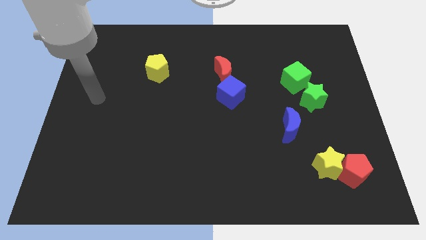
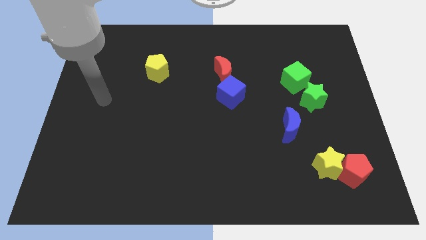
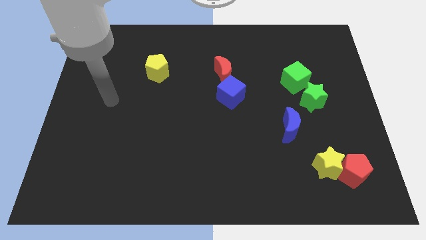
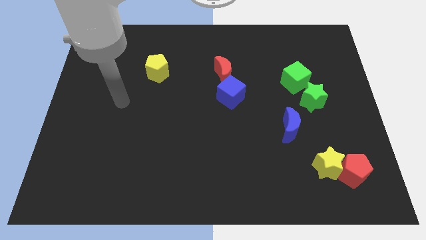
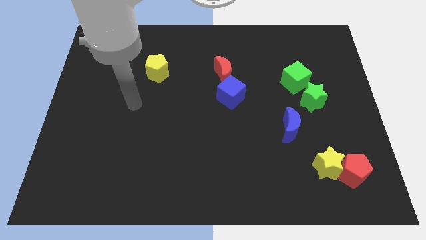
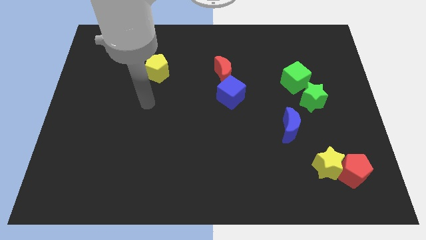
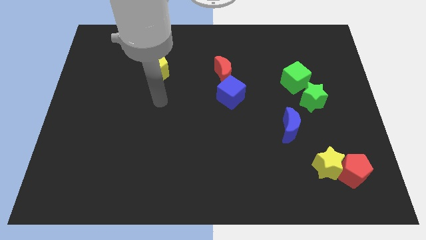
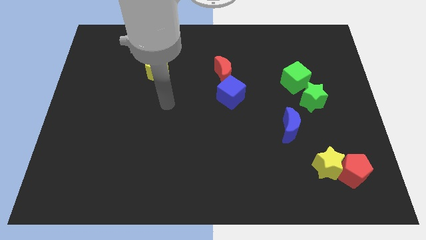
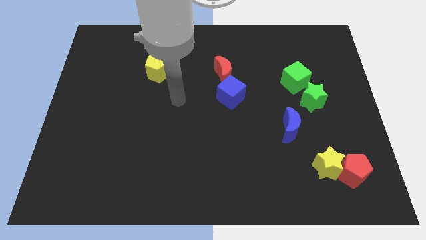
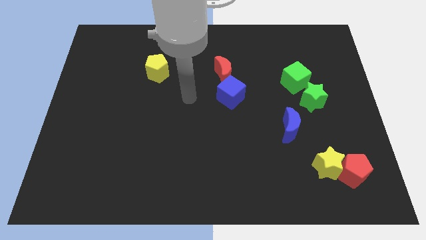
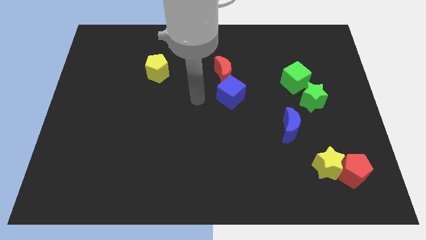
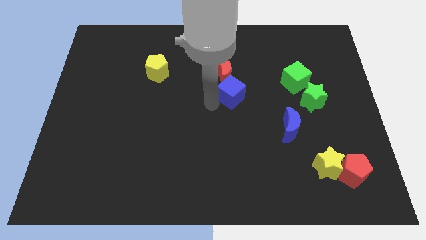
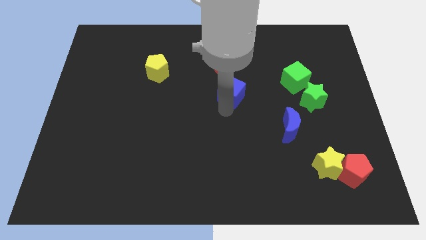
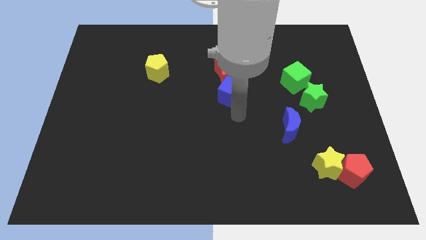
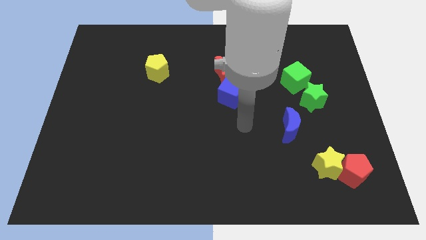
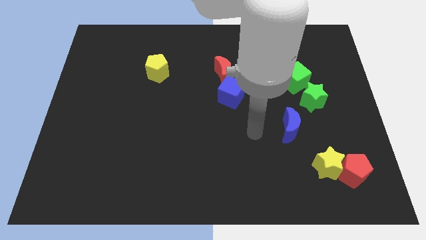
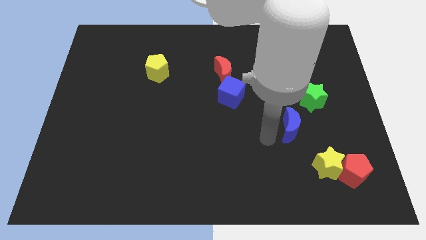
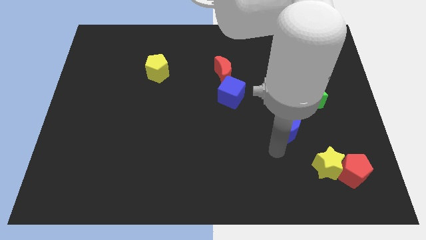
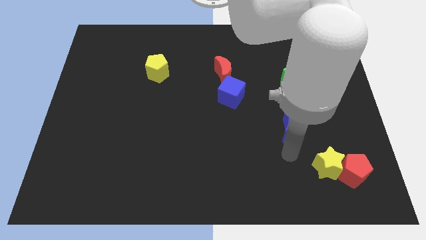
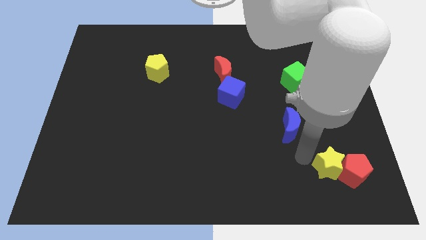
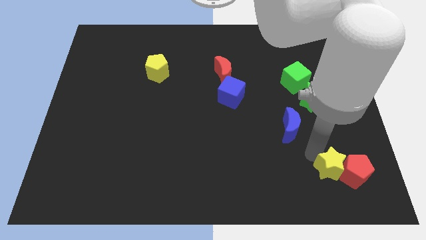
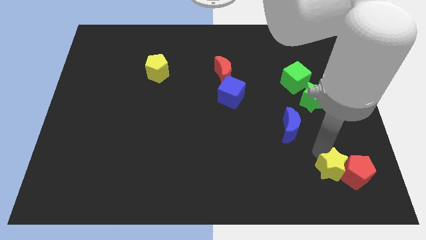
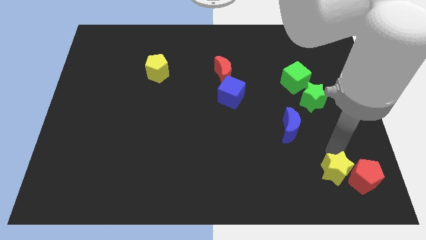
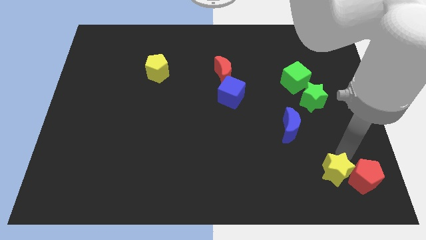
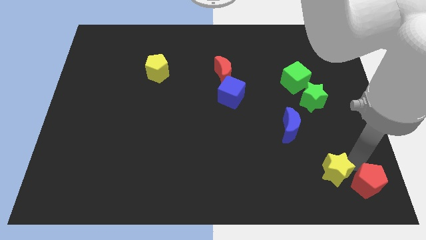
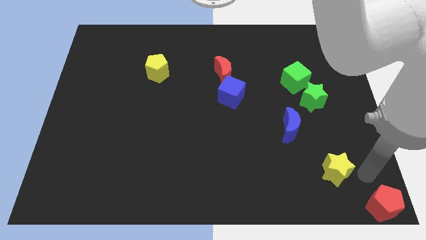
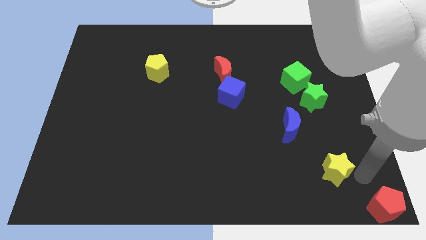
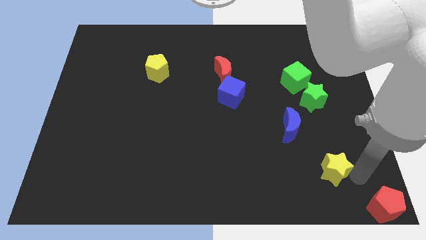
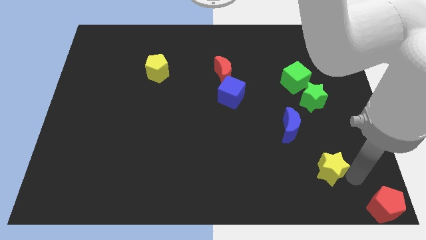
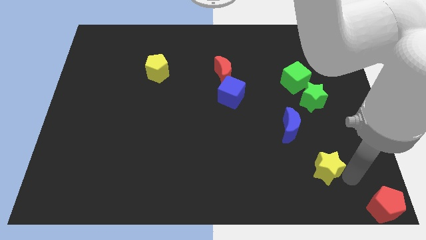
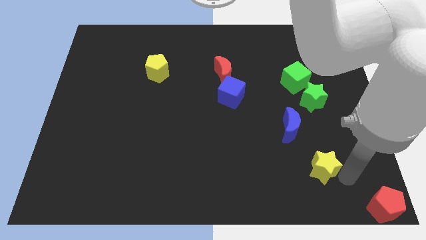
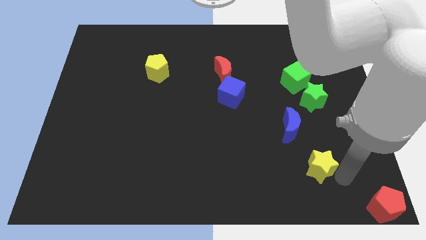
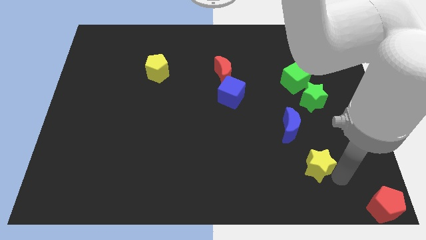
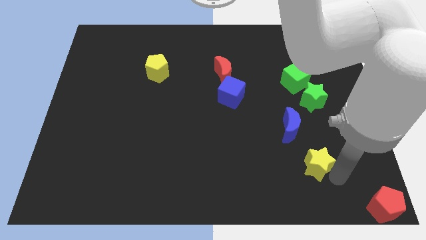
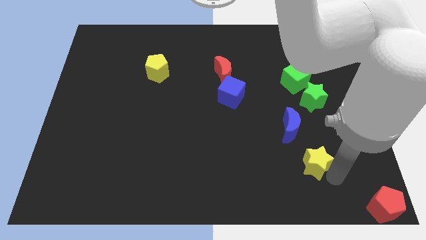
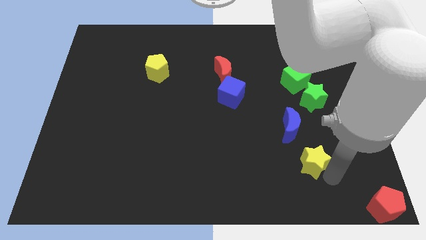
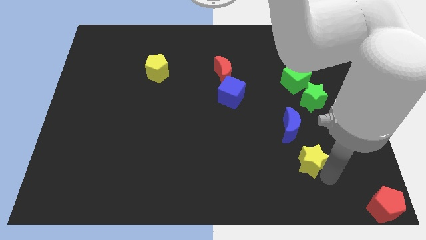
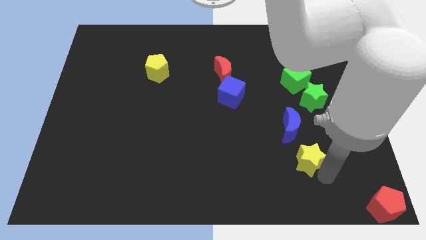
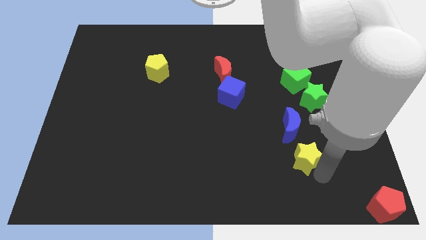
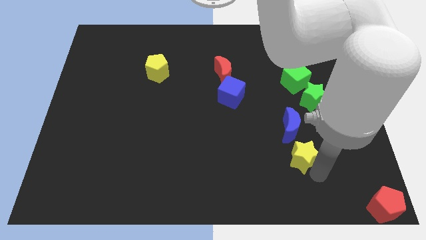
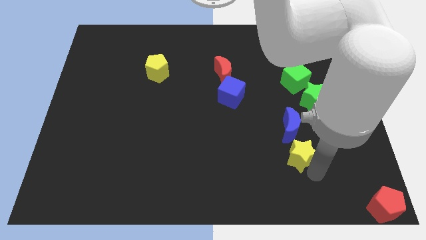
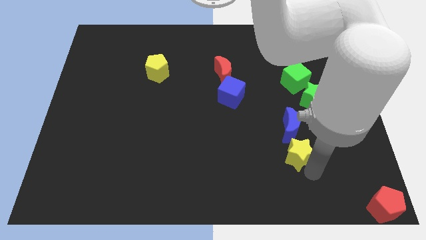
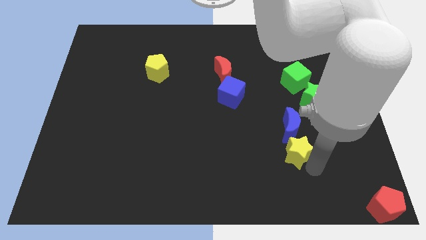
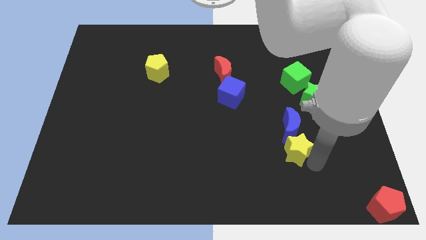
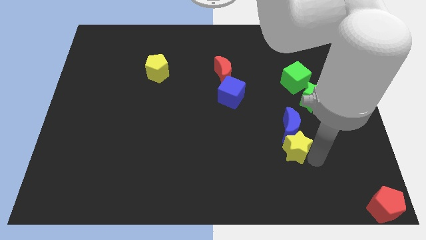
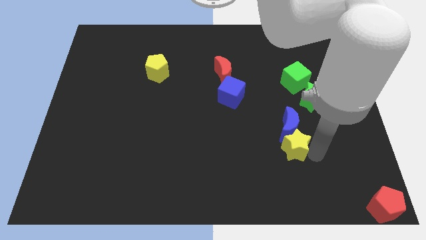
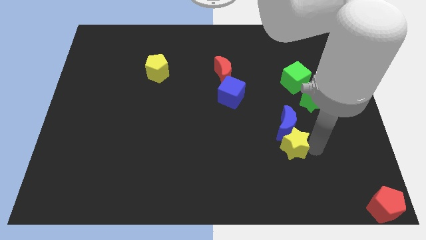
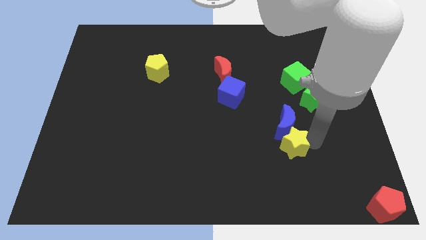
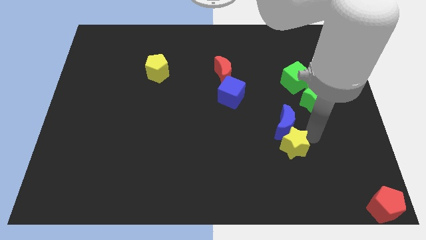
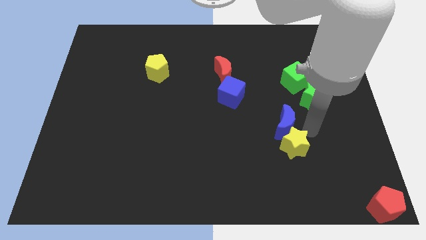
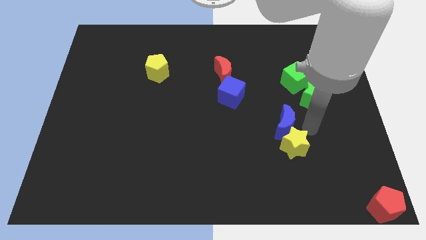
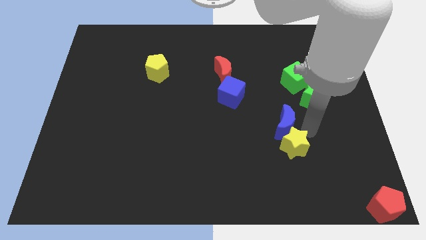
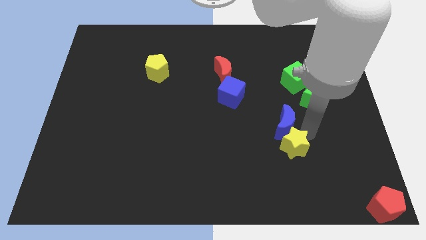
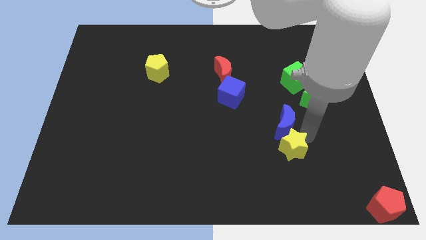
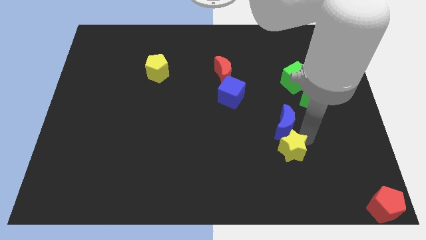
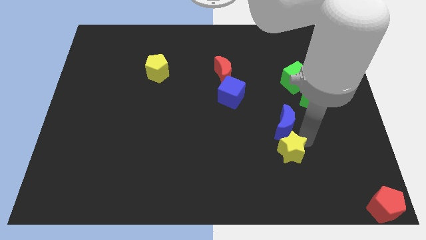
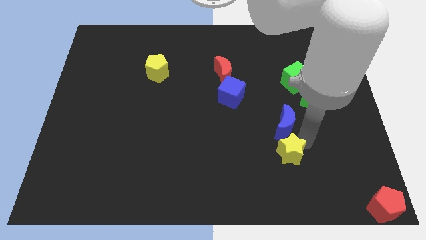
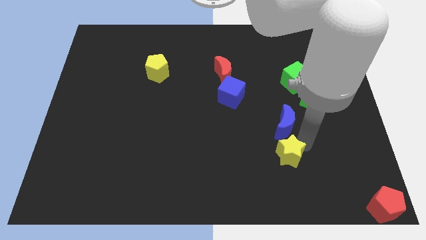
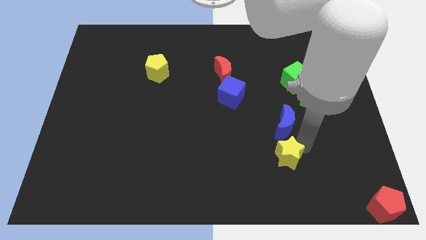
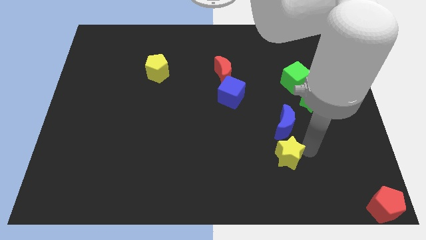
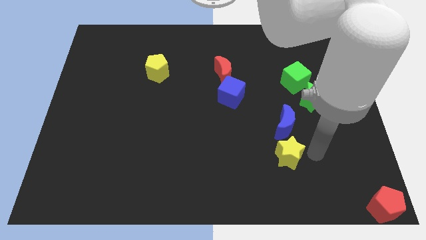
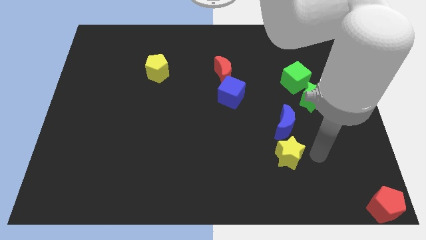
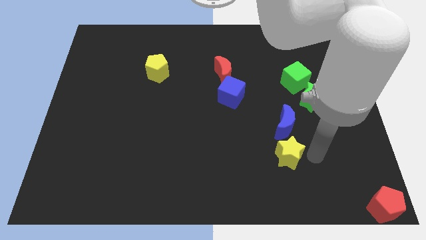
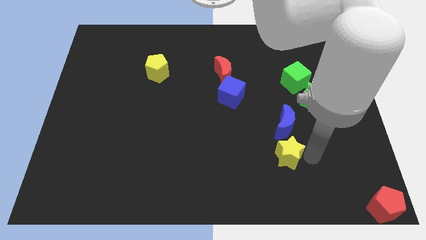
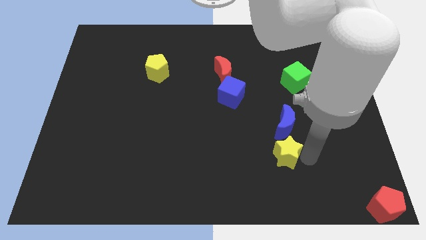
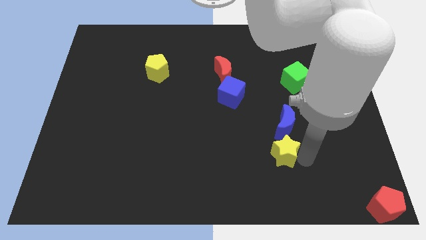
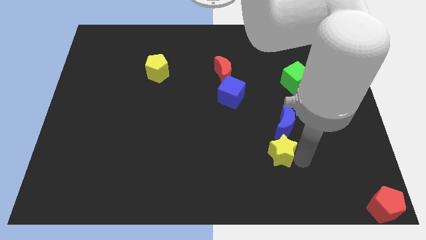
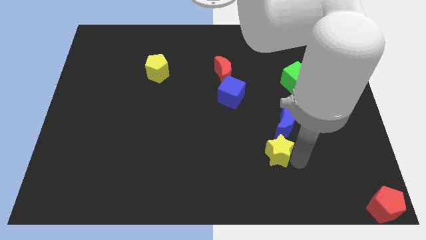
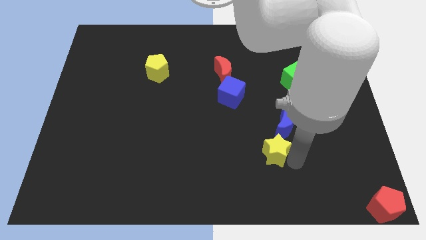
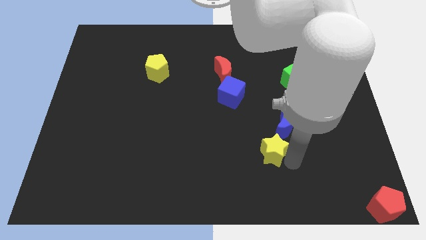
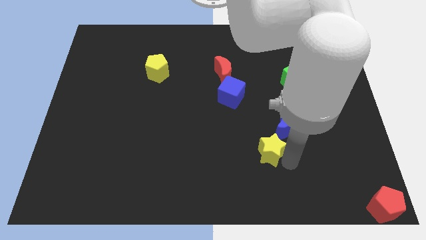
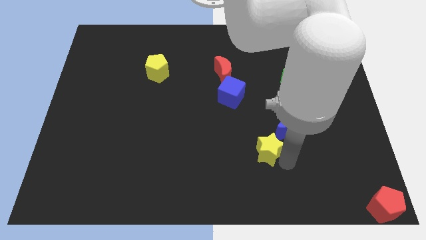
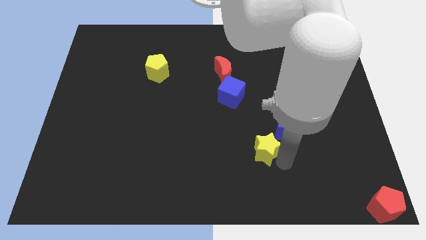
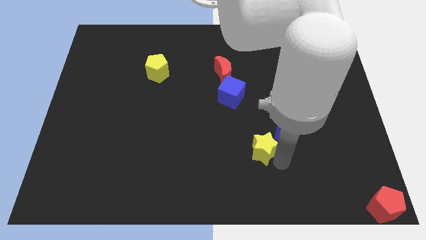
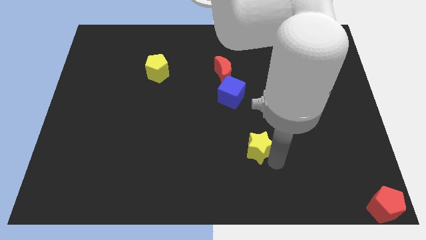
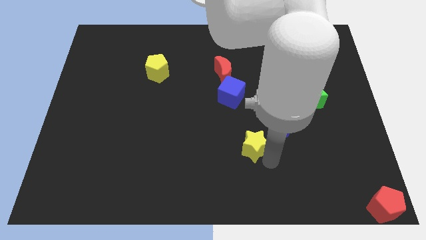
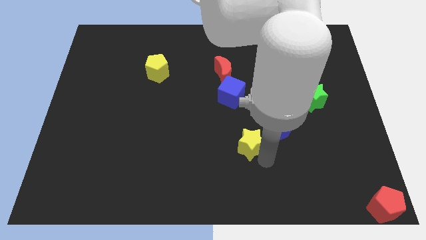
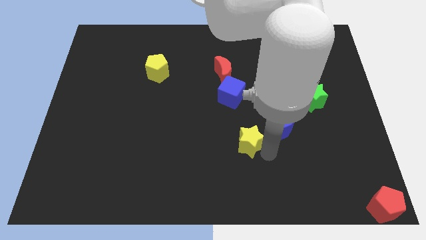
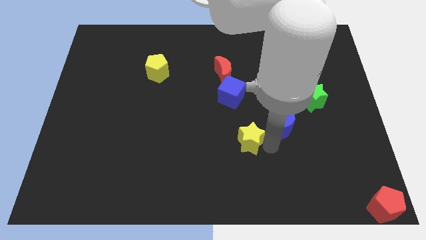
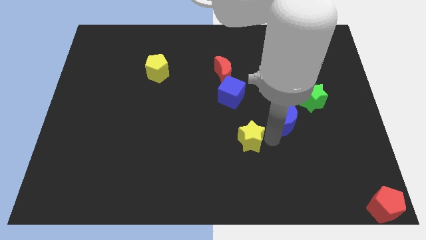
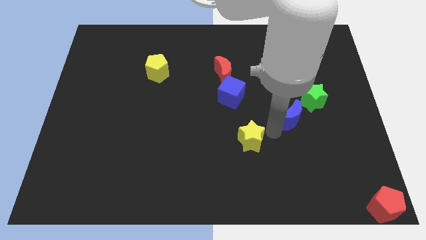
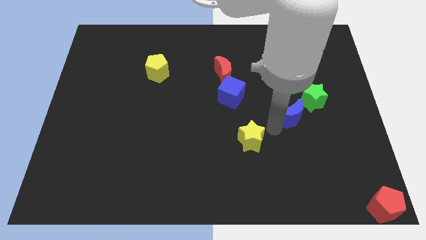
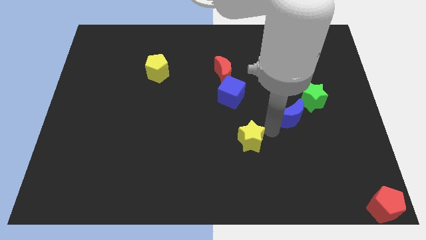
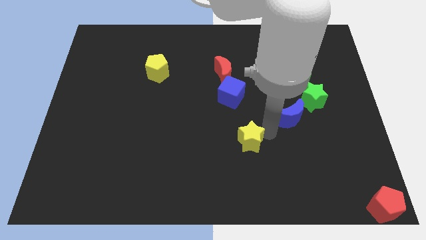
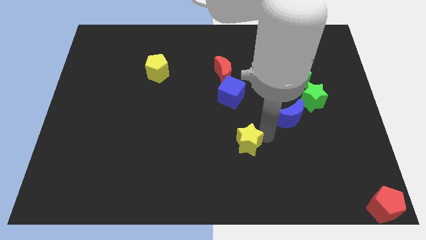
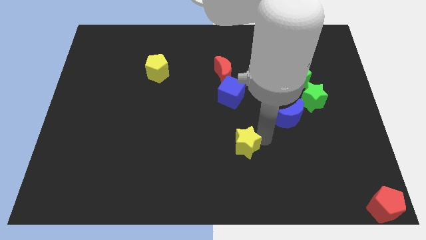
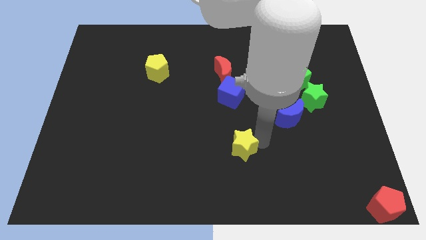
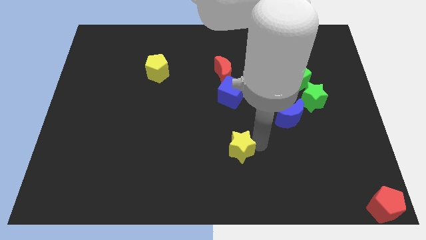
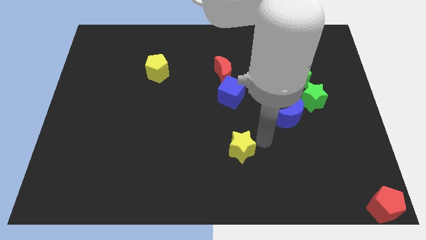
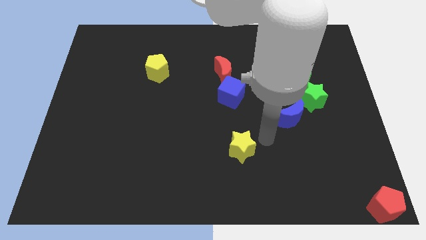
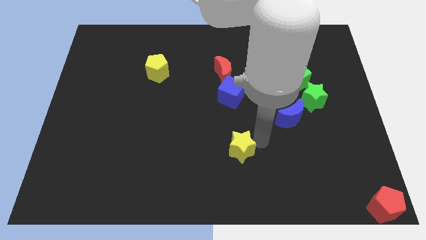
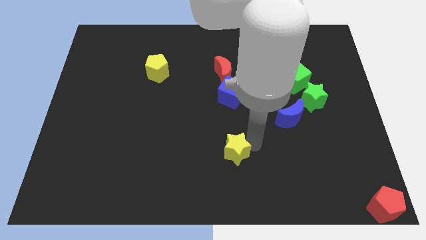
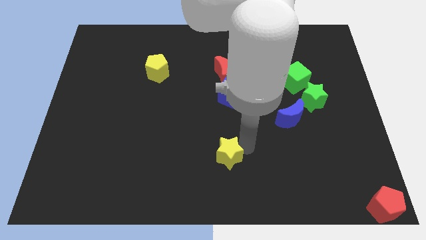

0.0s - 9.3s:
slide the yellow star left
